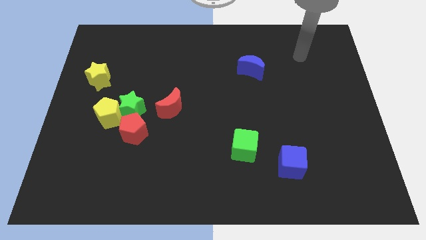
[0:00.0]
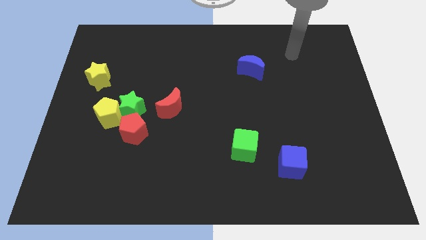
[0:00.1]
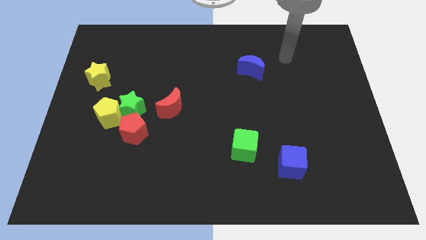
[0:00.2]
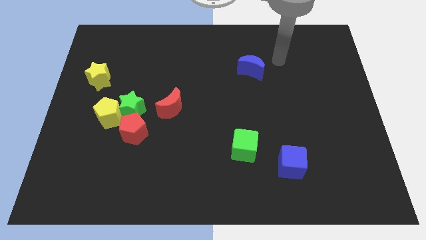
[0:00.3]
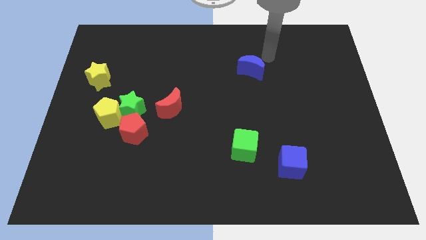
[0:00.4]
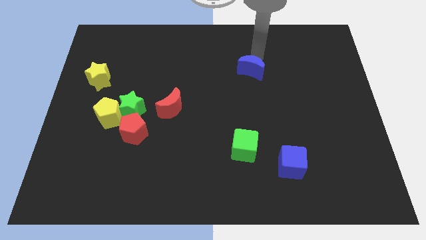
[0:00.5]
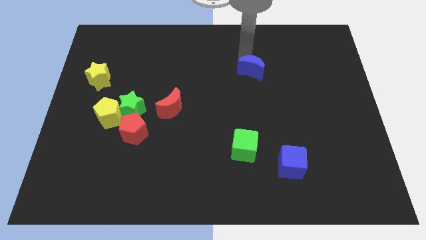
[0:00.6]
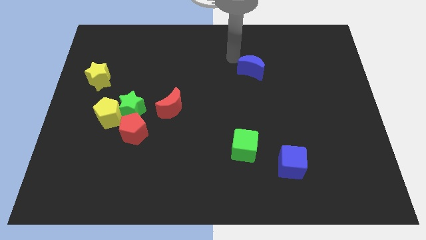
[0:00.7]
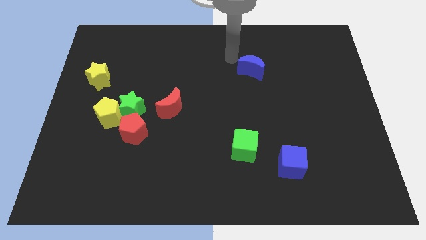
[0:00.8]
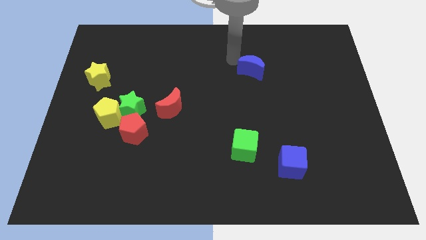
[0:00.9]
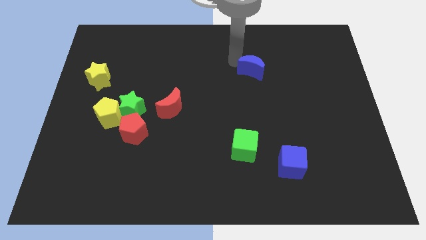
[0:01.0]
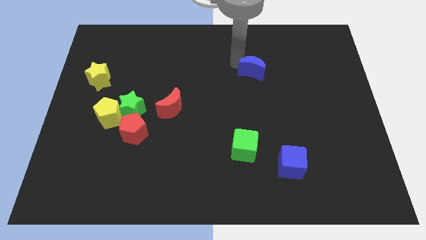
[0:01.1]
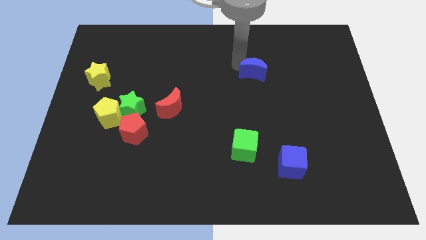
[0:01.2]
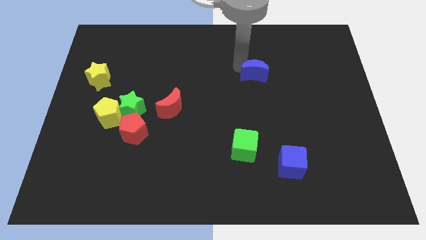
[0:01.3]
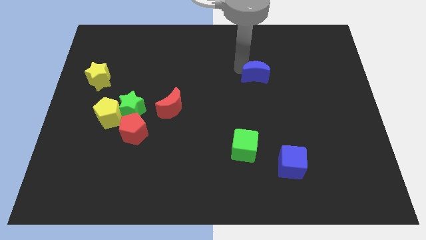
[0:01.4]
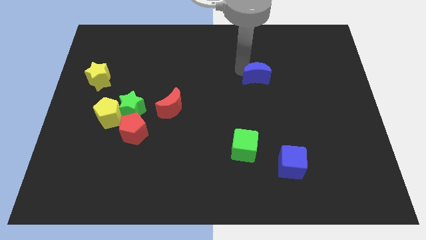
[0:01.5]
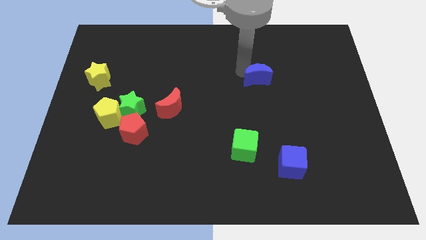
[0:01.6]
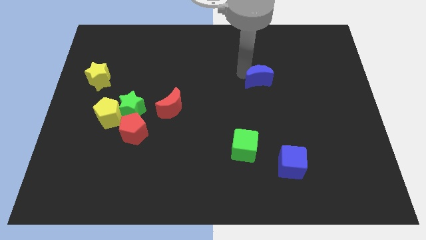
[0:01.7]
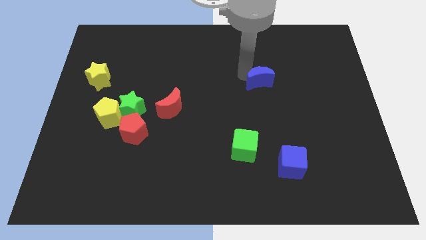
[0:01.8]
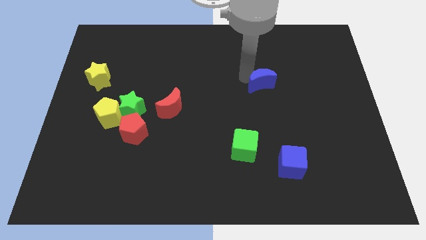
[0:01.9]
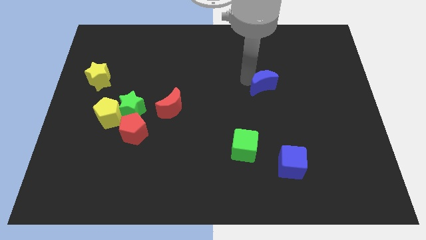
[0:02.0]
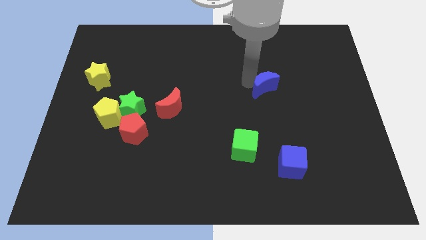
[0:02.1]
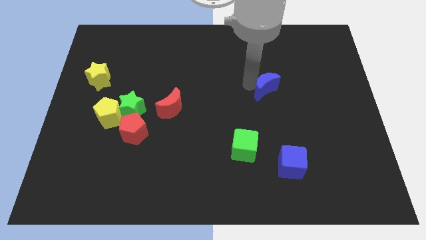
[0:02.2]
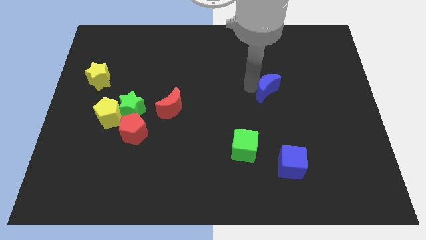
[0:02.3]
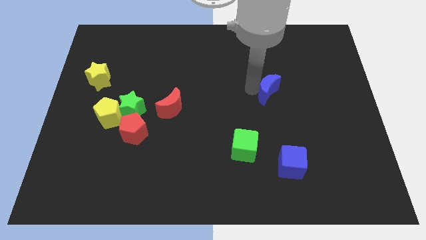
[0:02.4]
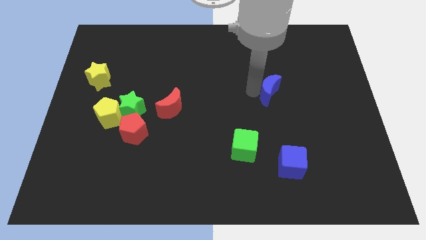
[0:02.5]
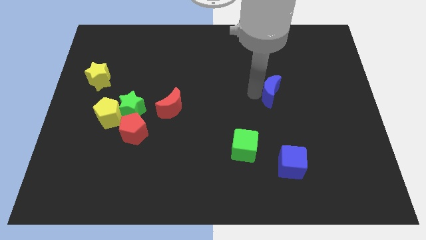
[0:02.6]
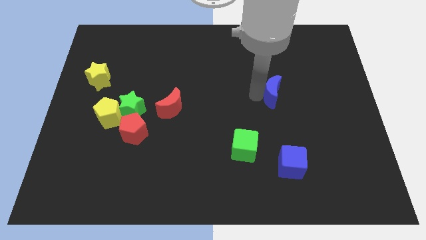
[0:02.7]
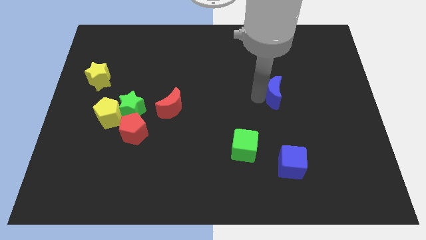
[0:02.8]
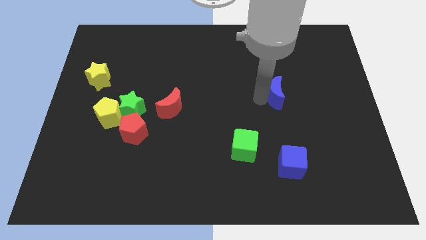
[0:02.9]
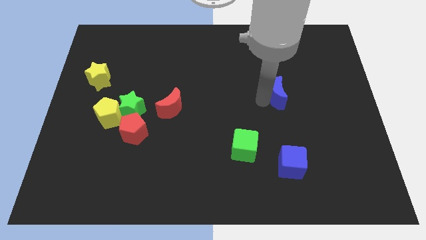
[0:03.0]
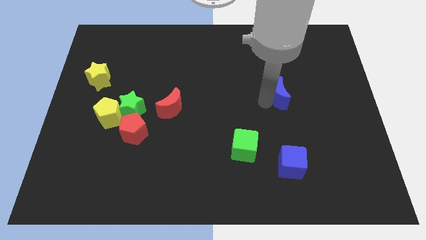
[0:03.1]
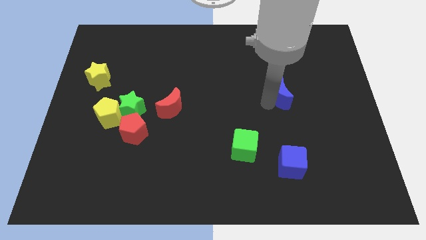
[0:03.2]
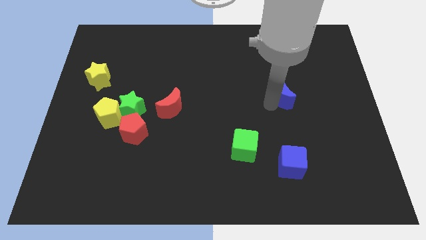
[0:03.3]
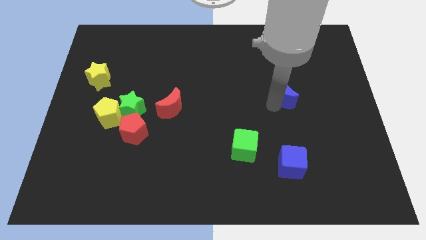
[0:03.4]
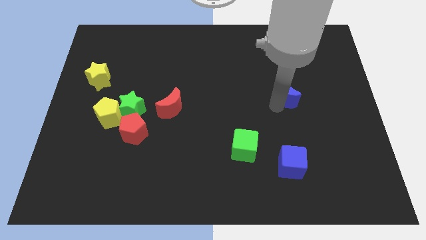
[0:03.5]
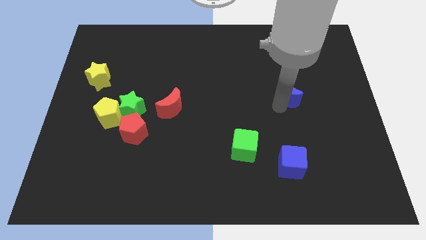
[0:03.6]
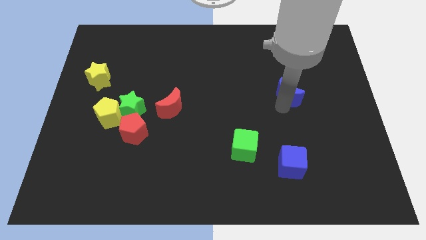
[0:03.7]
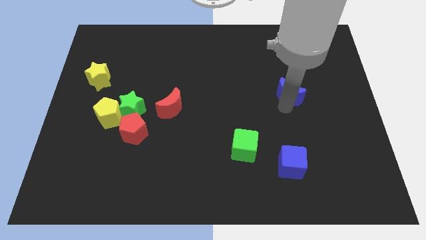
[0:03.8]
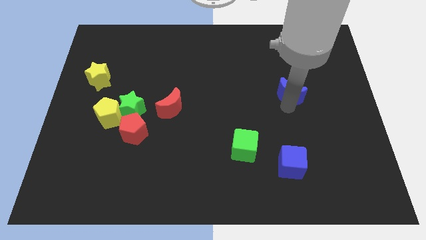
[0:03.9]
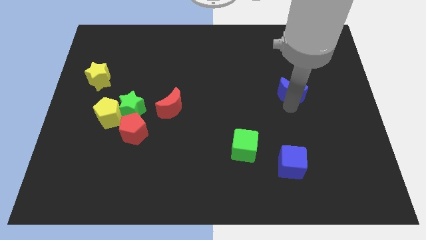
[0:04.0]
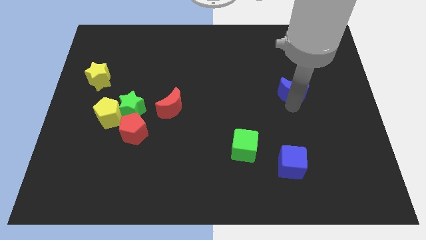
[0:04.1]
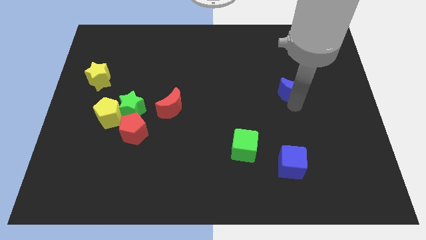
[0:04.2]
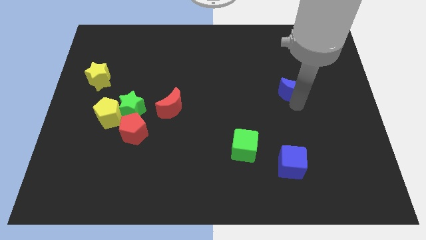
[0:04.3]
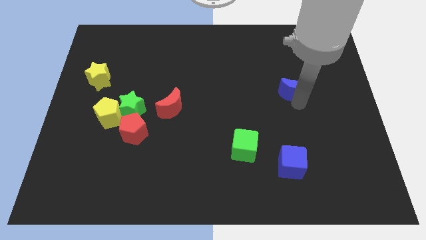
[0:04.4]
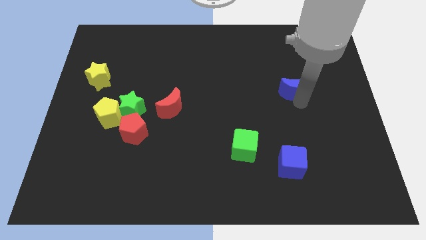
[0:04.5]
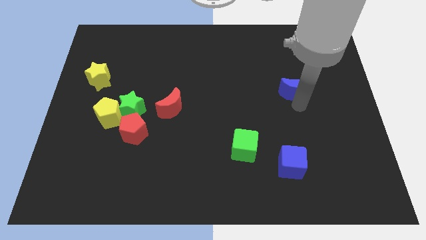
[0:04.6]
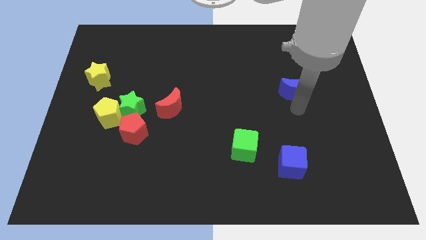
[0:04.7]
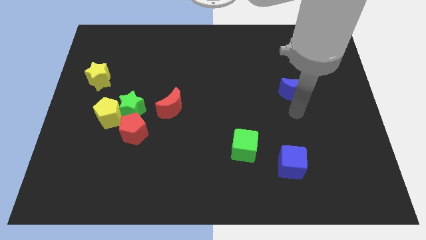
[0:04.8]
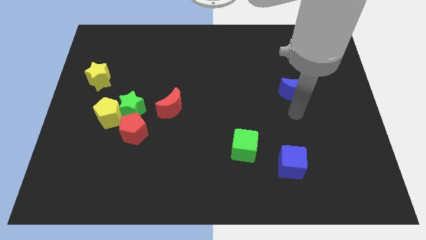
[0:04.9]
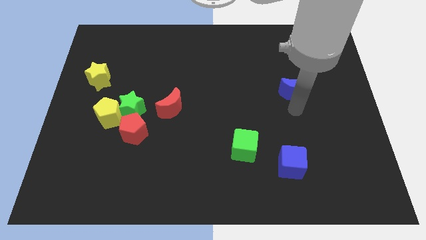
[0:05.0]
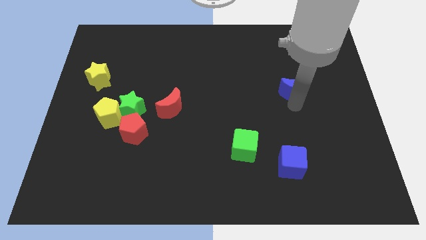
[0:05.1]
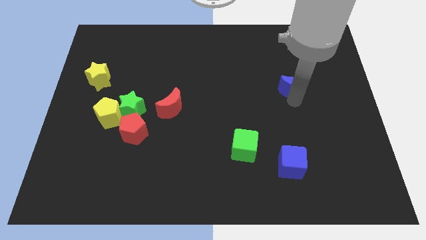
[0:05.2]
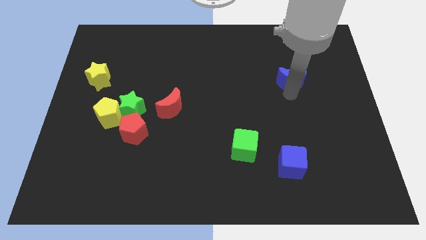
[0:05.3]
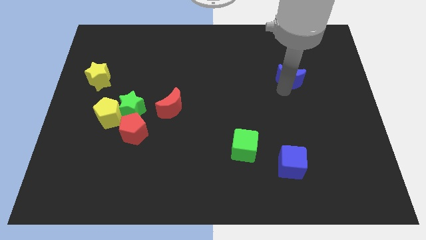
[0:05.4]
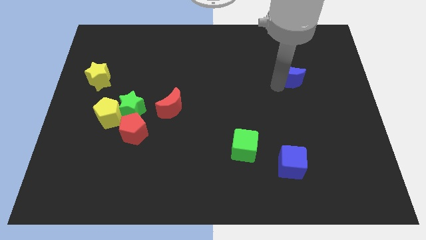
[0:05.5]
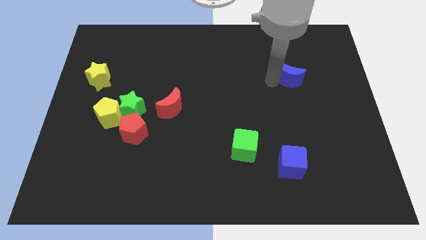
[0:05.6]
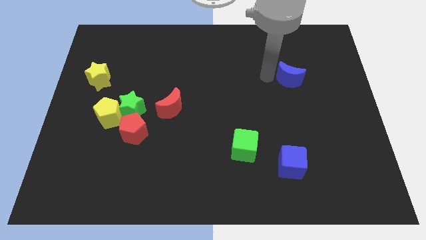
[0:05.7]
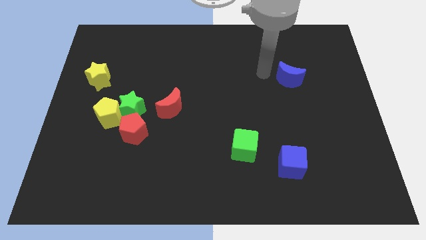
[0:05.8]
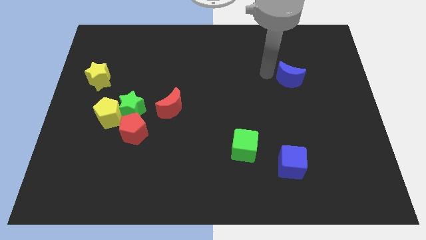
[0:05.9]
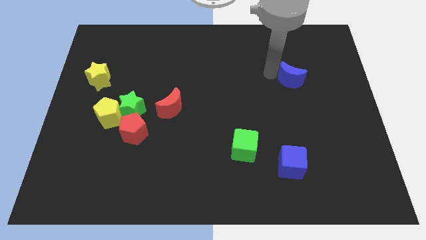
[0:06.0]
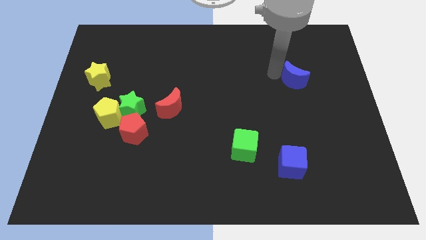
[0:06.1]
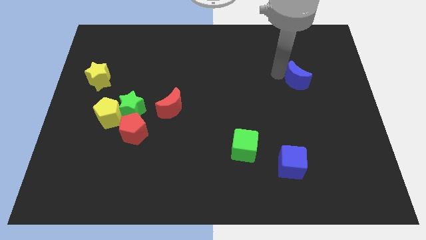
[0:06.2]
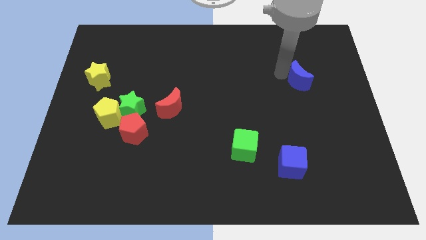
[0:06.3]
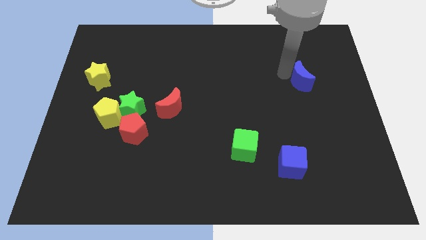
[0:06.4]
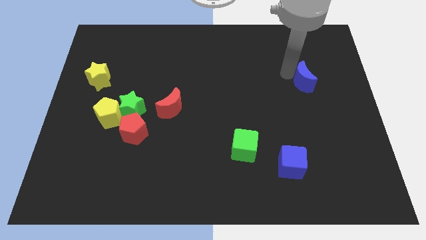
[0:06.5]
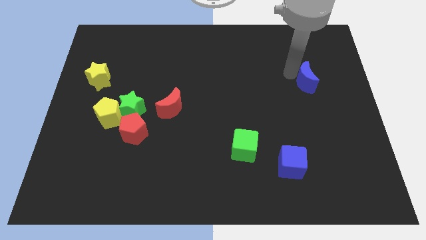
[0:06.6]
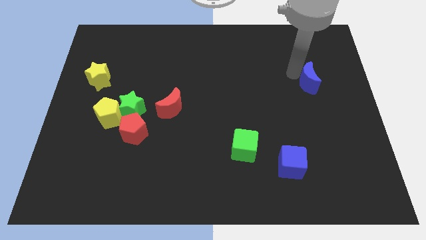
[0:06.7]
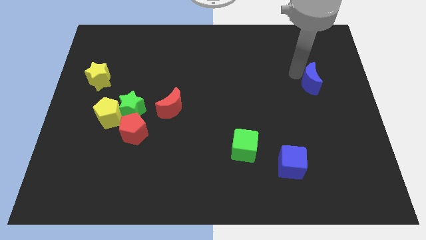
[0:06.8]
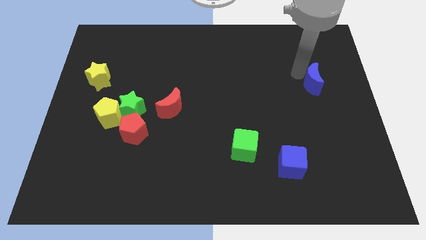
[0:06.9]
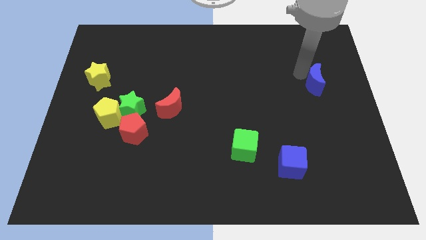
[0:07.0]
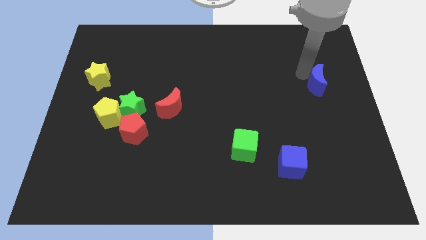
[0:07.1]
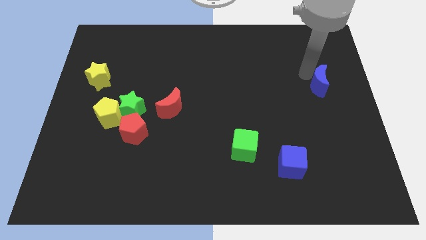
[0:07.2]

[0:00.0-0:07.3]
put the blue moon to the center right
